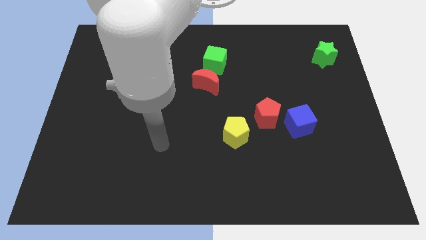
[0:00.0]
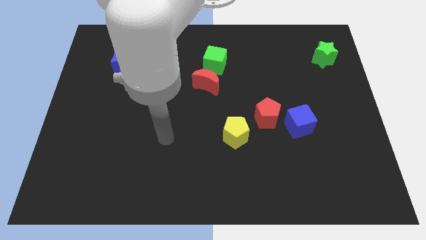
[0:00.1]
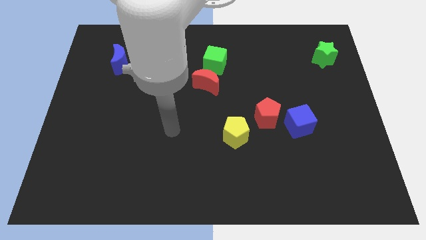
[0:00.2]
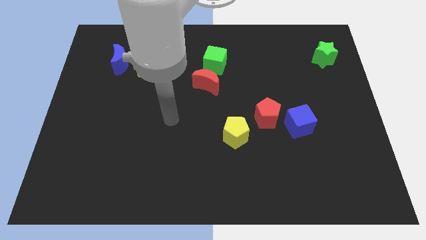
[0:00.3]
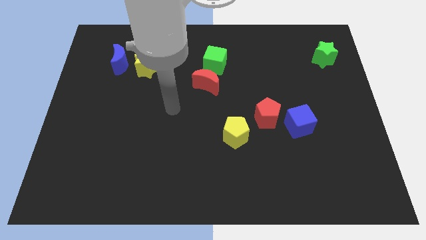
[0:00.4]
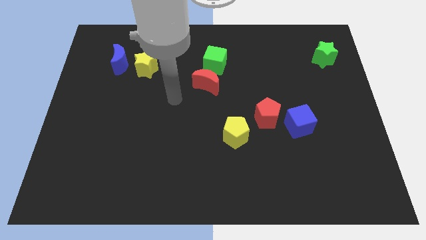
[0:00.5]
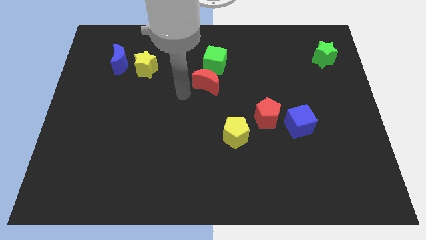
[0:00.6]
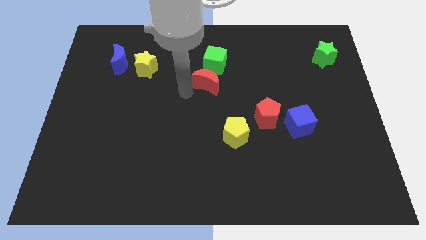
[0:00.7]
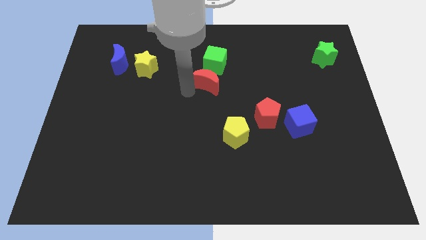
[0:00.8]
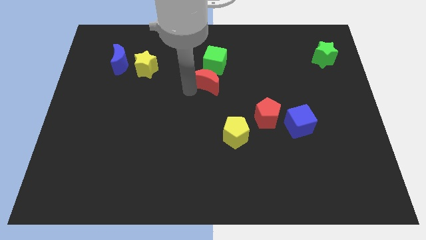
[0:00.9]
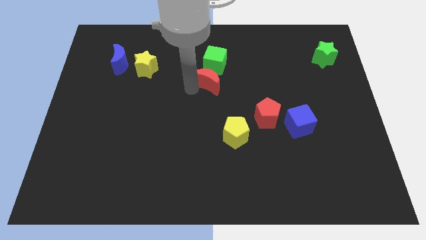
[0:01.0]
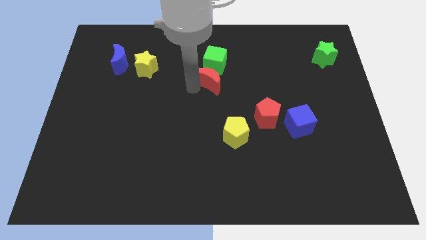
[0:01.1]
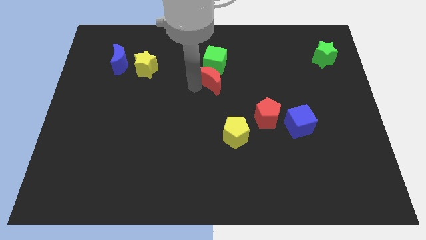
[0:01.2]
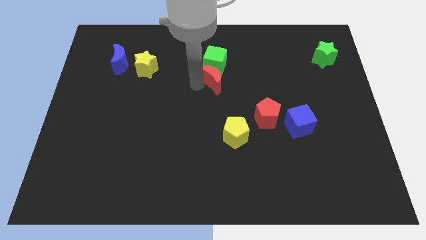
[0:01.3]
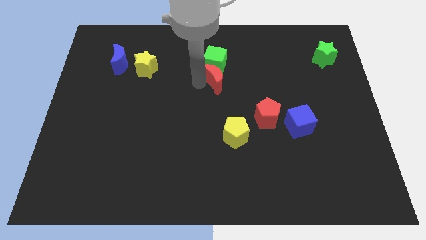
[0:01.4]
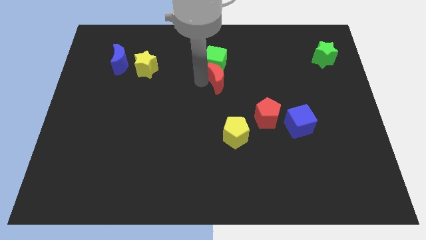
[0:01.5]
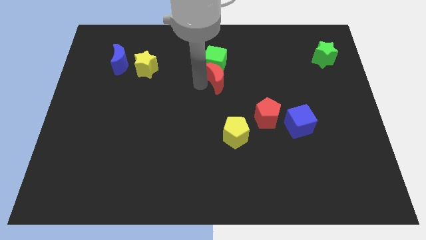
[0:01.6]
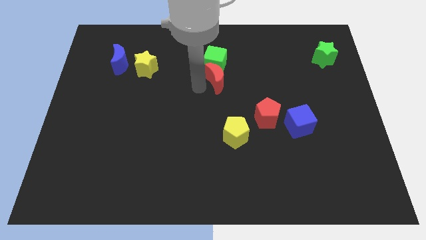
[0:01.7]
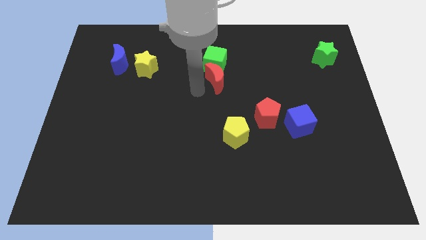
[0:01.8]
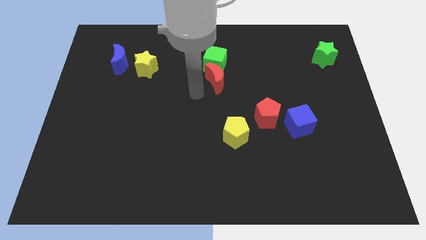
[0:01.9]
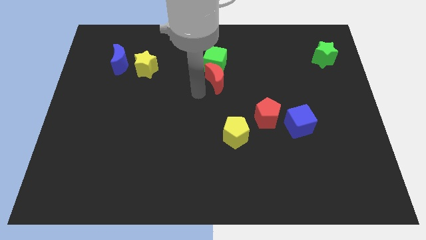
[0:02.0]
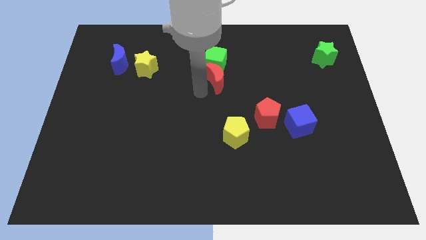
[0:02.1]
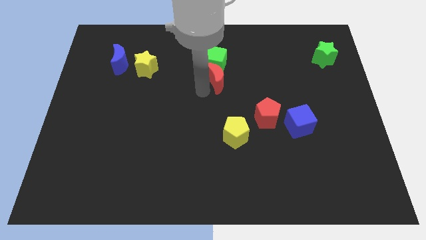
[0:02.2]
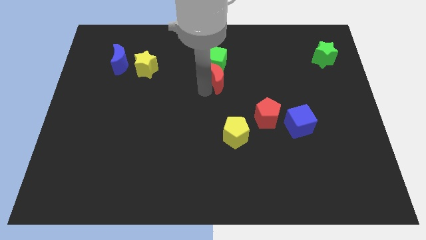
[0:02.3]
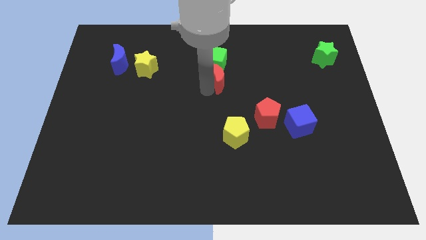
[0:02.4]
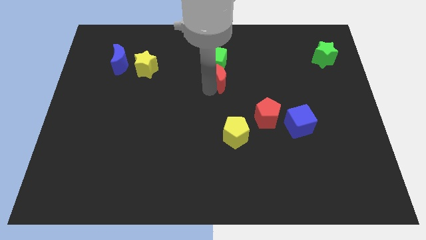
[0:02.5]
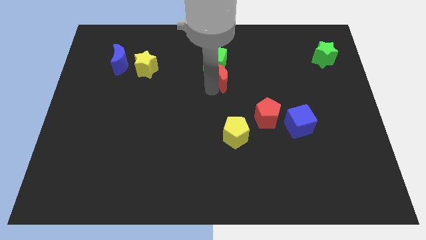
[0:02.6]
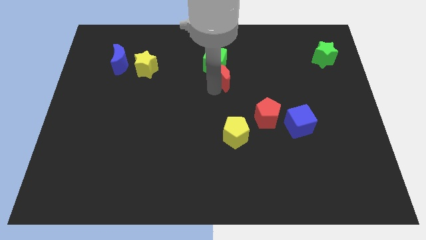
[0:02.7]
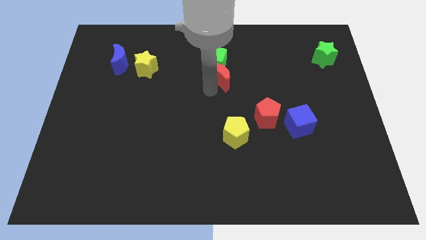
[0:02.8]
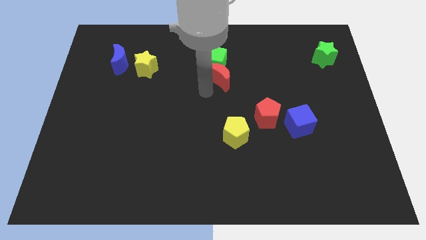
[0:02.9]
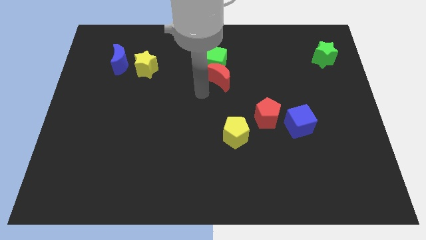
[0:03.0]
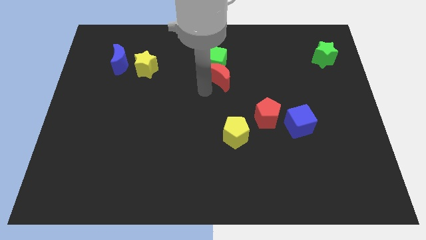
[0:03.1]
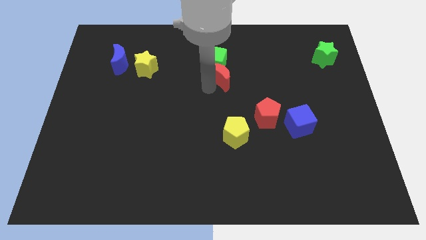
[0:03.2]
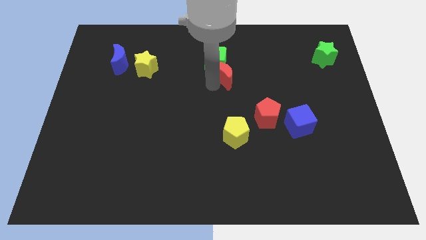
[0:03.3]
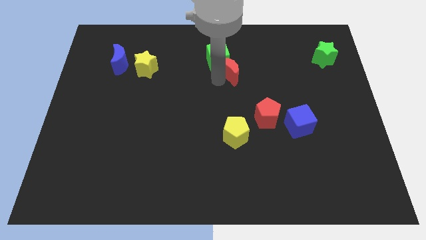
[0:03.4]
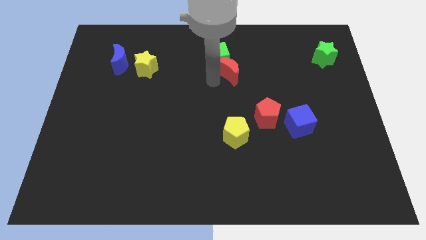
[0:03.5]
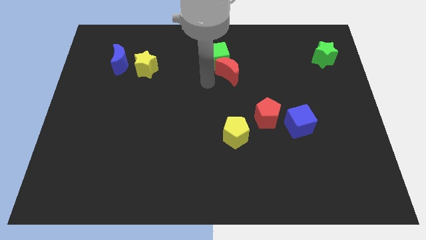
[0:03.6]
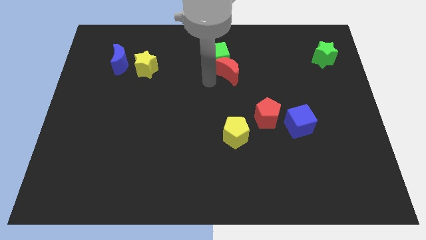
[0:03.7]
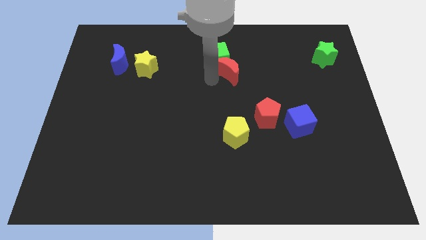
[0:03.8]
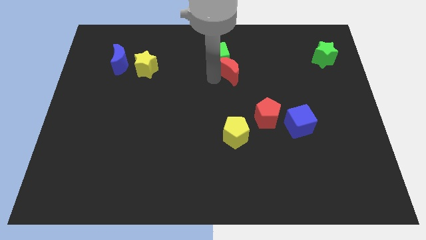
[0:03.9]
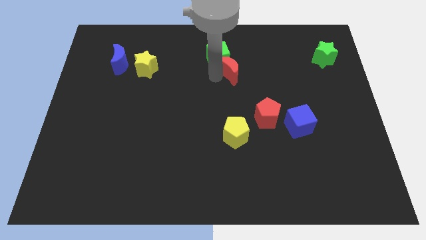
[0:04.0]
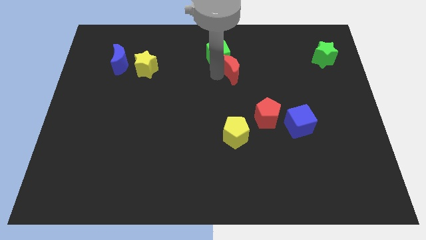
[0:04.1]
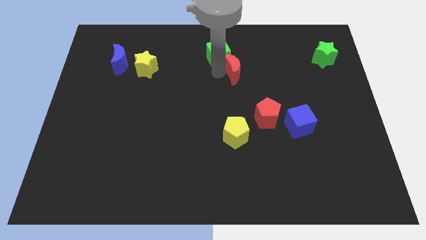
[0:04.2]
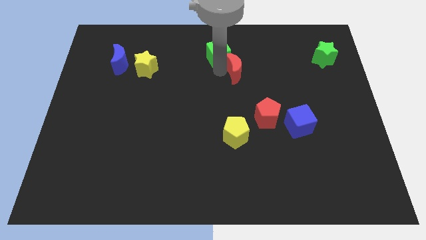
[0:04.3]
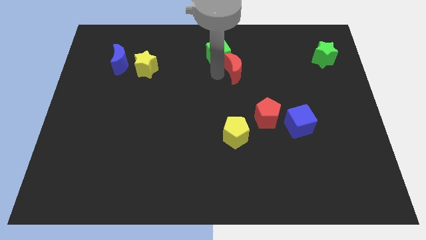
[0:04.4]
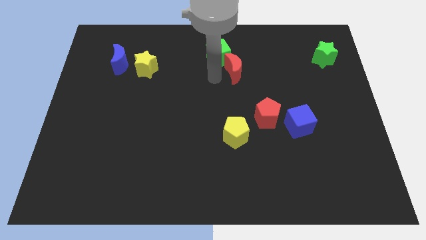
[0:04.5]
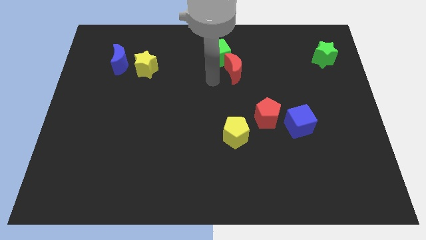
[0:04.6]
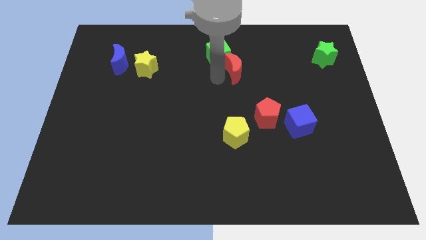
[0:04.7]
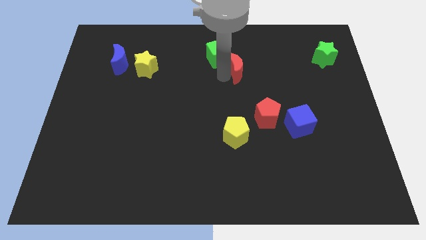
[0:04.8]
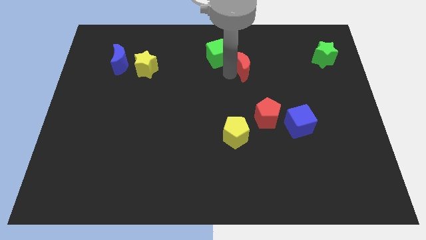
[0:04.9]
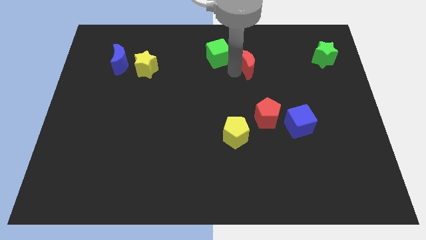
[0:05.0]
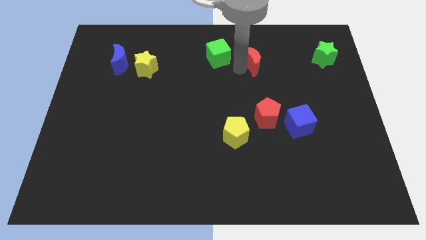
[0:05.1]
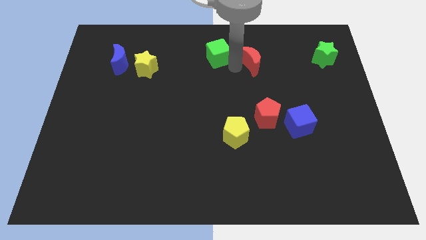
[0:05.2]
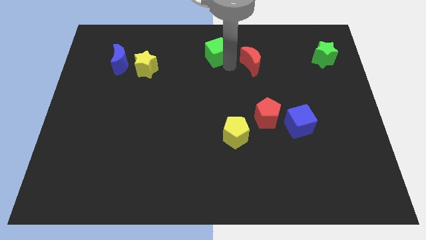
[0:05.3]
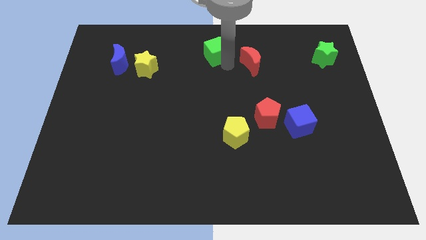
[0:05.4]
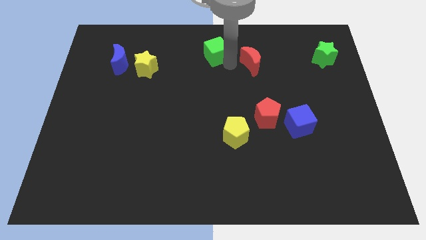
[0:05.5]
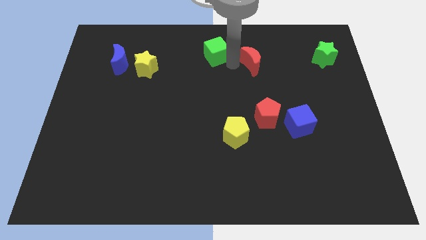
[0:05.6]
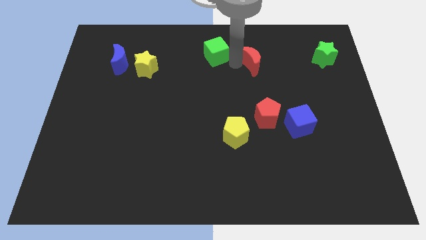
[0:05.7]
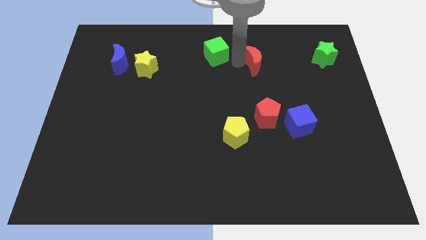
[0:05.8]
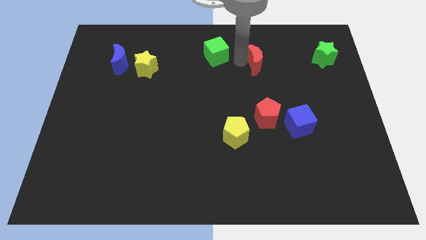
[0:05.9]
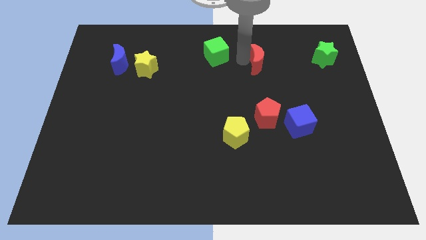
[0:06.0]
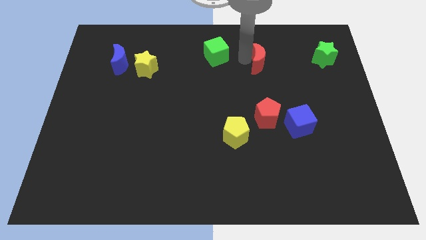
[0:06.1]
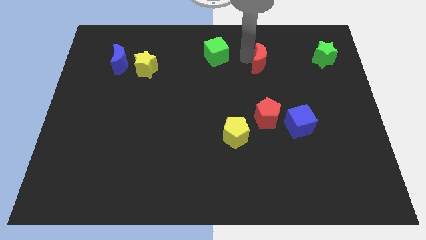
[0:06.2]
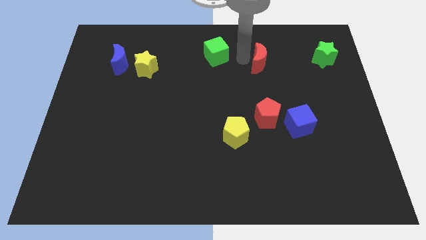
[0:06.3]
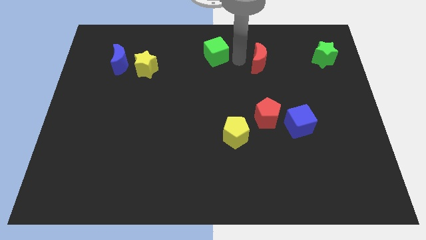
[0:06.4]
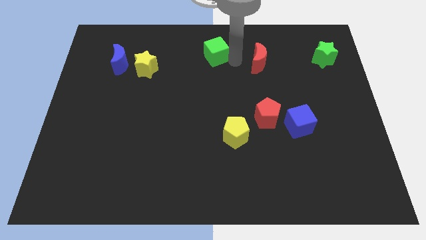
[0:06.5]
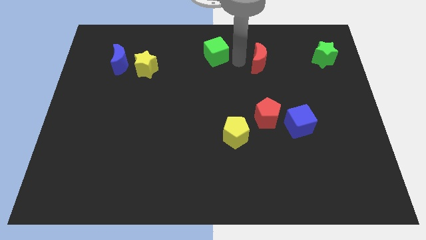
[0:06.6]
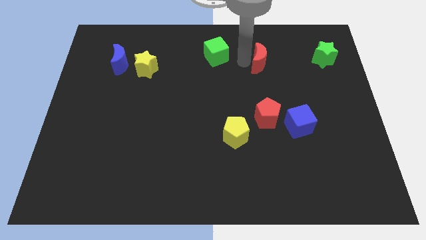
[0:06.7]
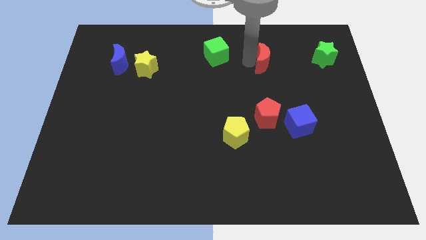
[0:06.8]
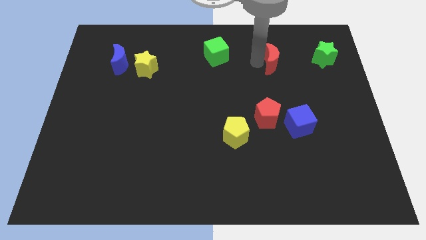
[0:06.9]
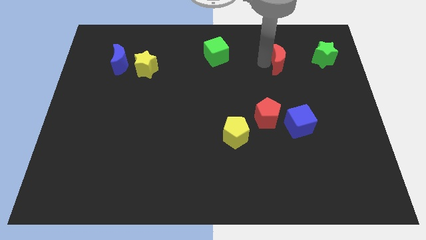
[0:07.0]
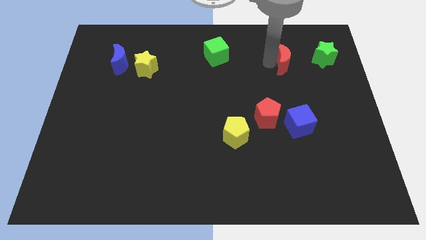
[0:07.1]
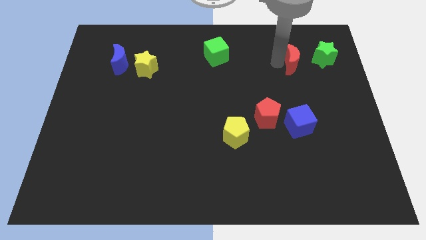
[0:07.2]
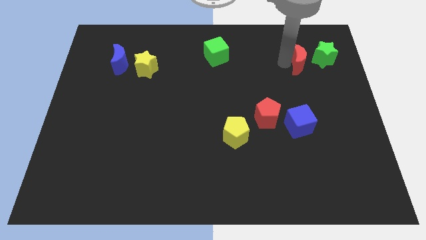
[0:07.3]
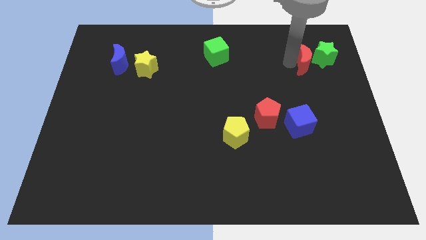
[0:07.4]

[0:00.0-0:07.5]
put the red moon next to the green star
